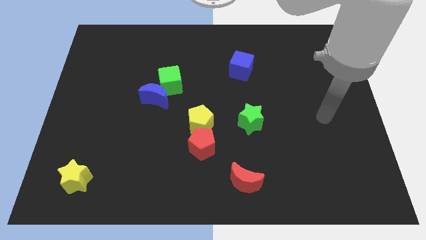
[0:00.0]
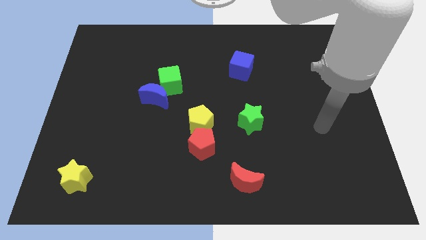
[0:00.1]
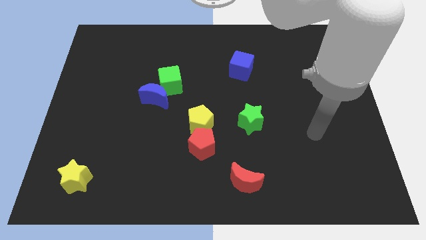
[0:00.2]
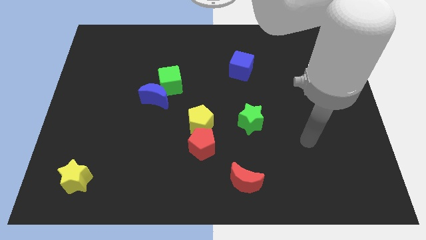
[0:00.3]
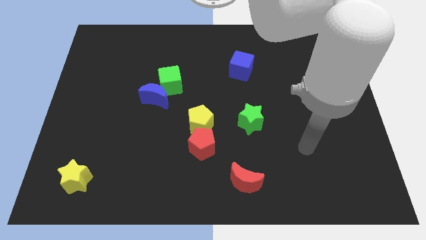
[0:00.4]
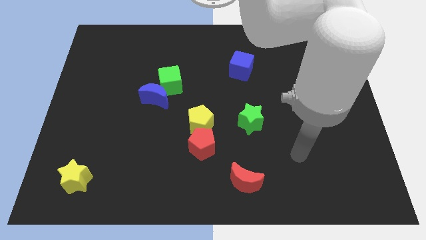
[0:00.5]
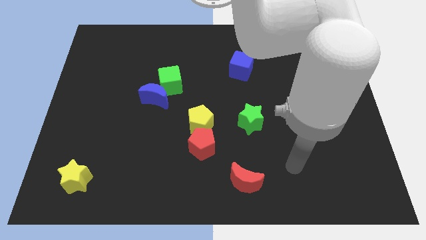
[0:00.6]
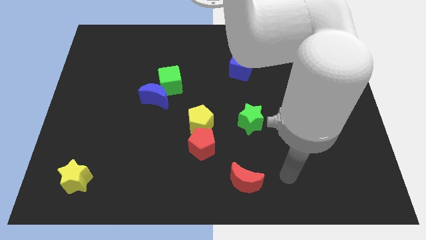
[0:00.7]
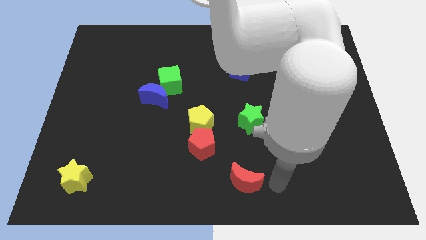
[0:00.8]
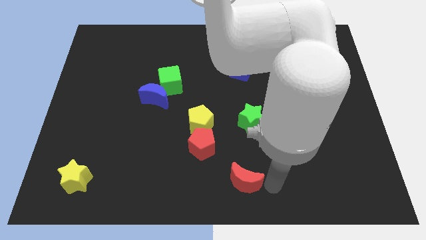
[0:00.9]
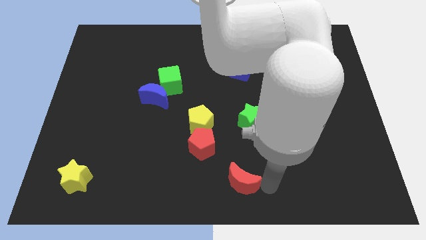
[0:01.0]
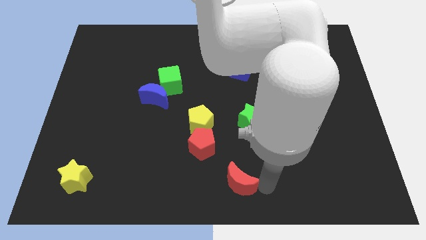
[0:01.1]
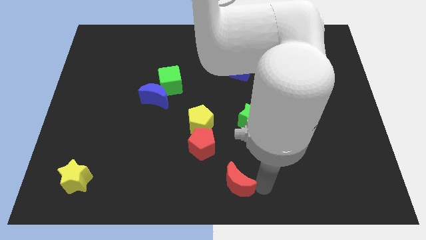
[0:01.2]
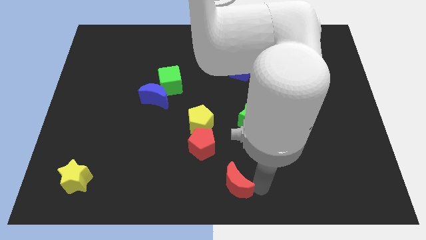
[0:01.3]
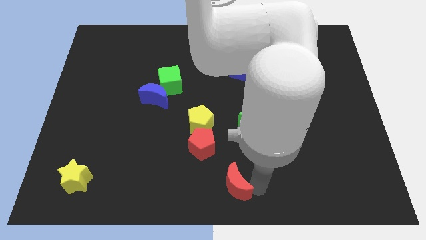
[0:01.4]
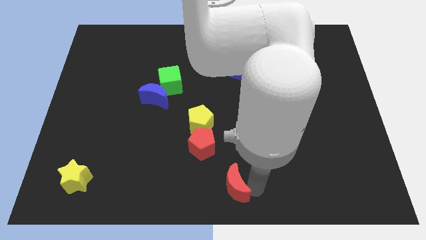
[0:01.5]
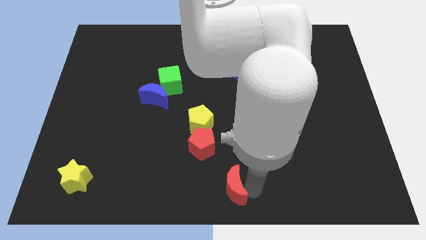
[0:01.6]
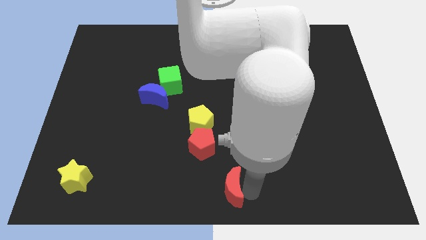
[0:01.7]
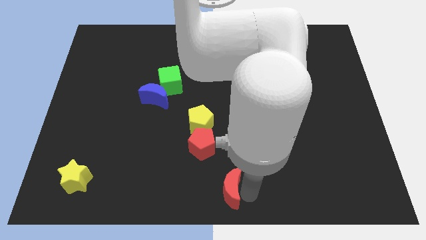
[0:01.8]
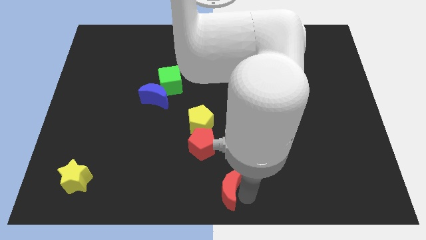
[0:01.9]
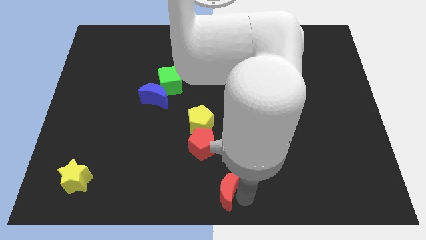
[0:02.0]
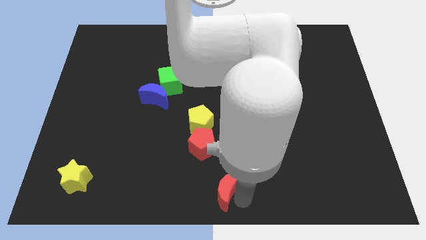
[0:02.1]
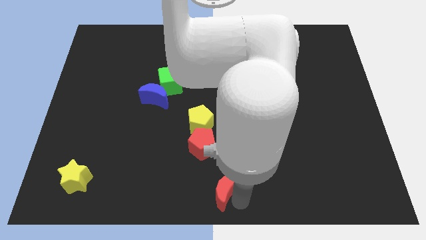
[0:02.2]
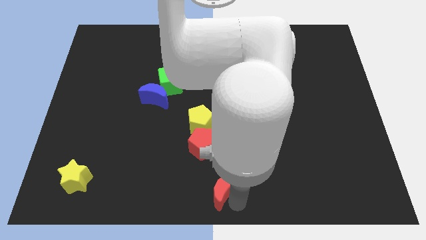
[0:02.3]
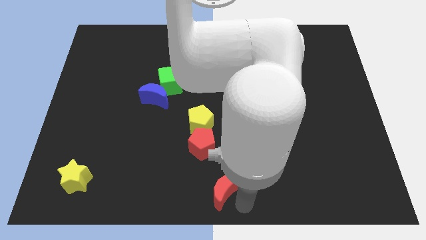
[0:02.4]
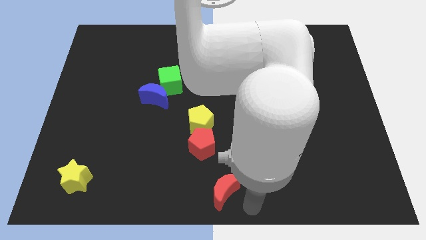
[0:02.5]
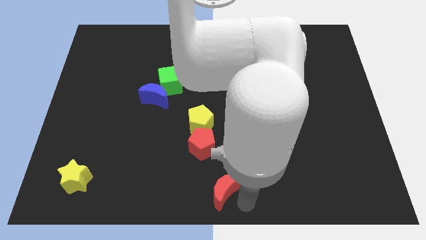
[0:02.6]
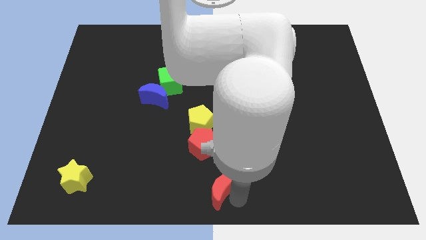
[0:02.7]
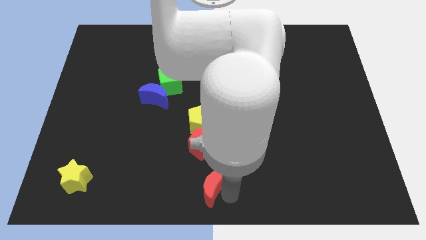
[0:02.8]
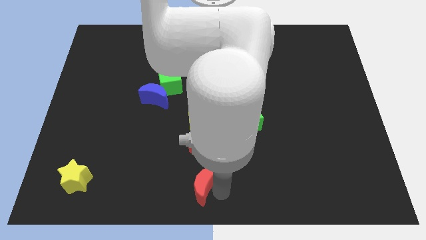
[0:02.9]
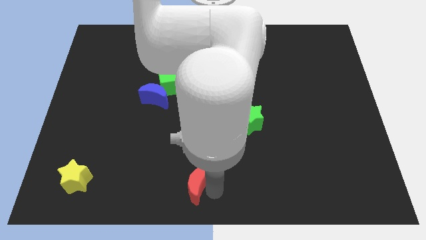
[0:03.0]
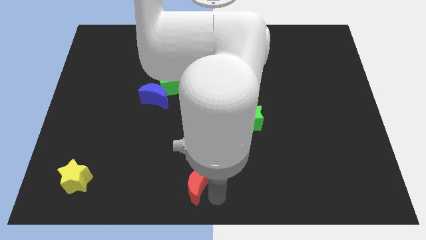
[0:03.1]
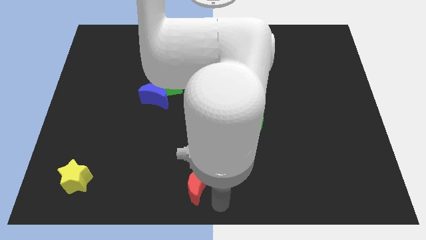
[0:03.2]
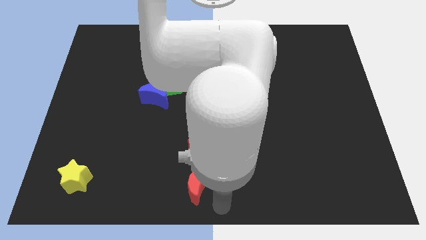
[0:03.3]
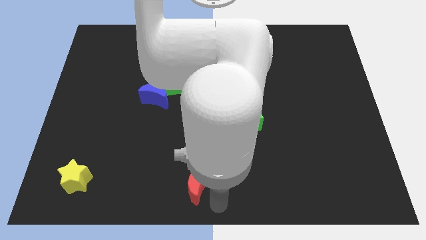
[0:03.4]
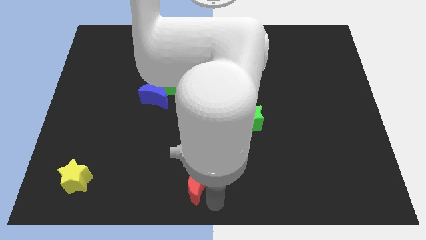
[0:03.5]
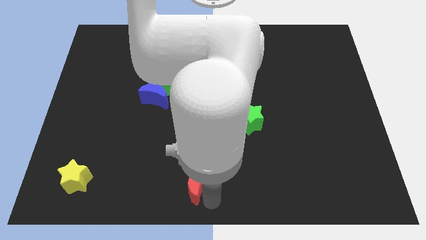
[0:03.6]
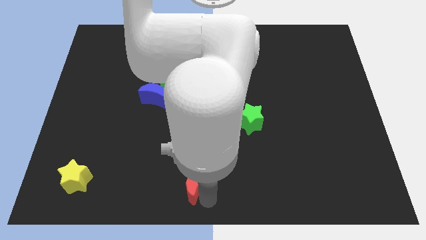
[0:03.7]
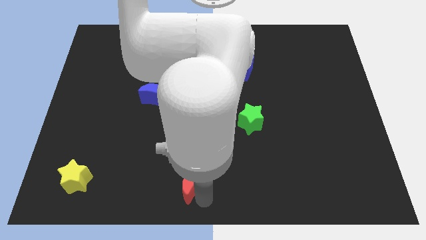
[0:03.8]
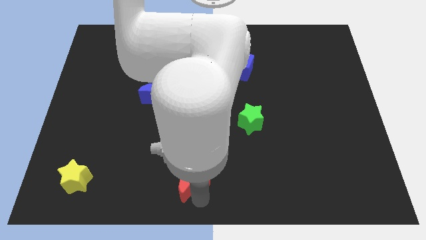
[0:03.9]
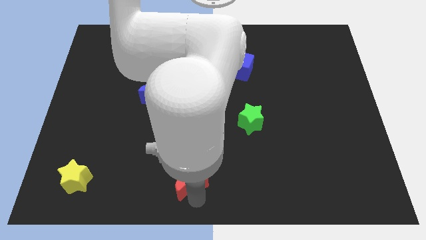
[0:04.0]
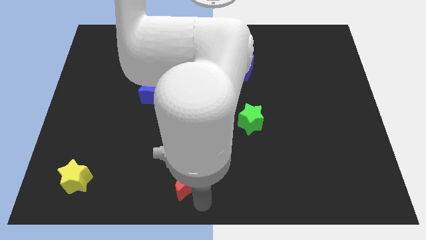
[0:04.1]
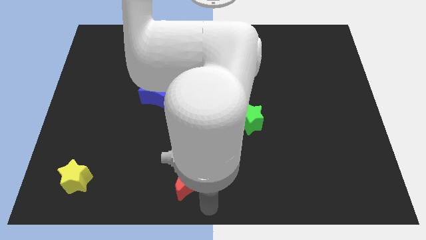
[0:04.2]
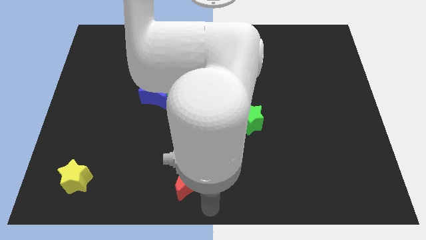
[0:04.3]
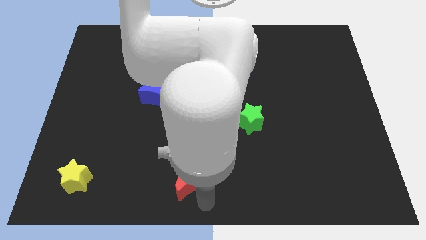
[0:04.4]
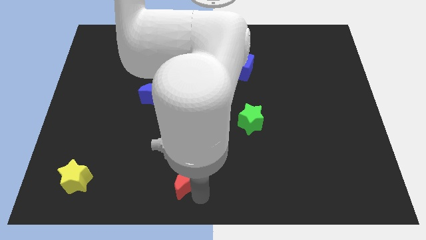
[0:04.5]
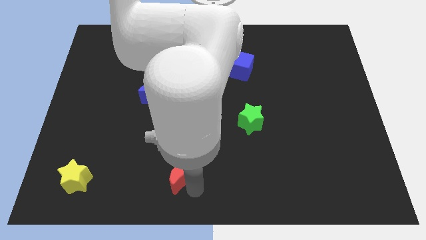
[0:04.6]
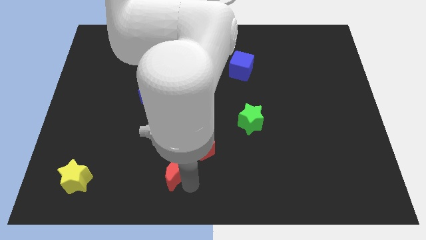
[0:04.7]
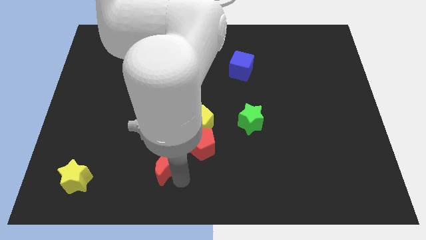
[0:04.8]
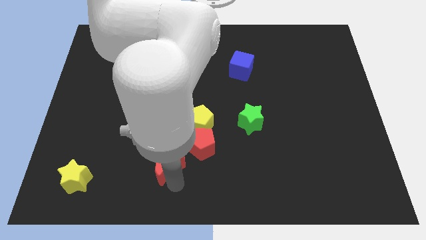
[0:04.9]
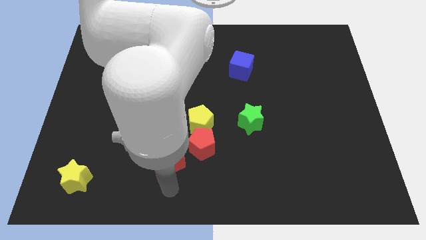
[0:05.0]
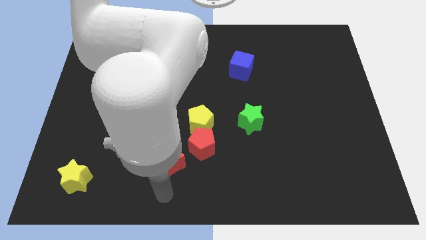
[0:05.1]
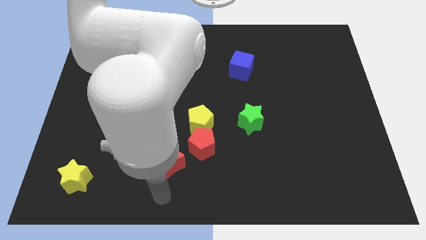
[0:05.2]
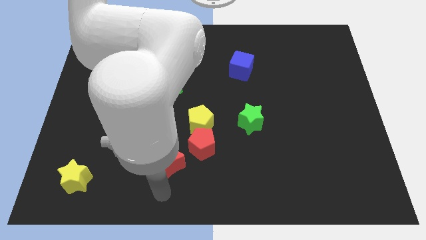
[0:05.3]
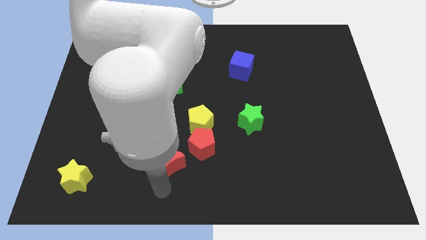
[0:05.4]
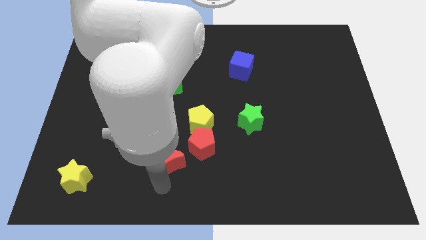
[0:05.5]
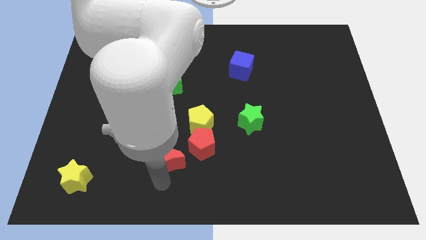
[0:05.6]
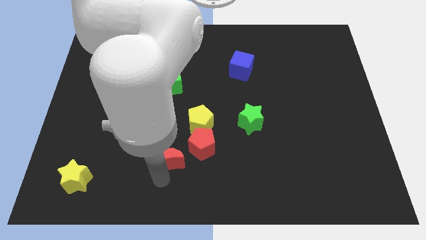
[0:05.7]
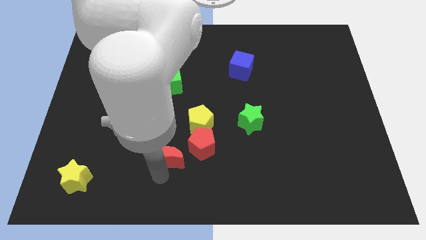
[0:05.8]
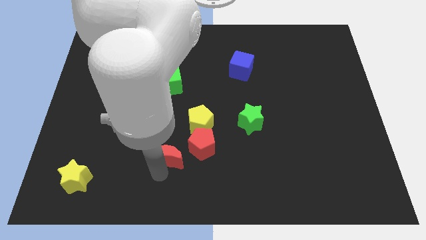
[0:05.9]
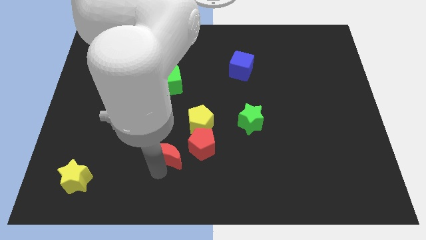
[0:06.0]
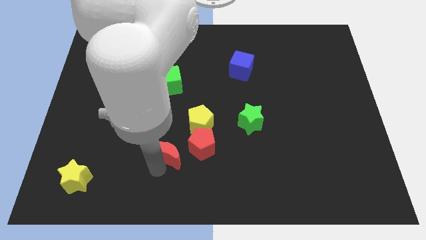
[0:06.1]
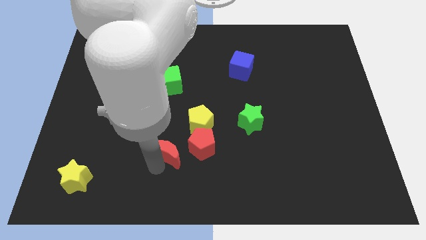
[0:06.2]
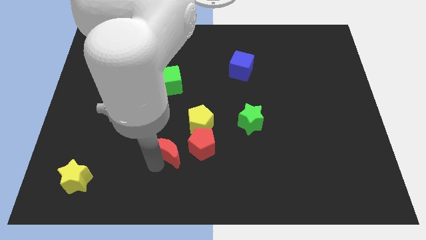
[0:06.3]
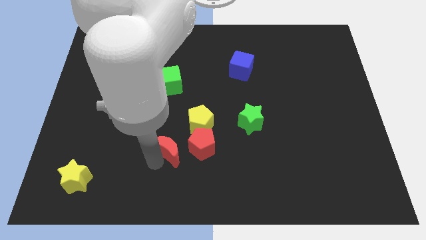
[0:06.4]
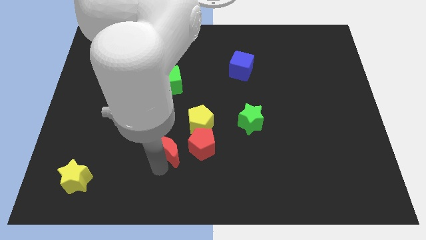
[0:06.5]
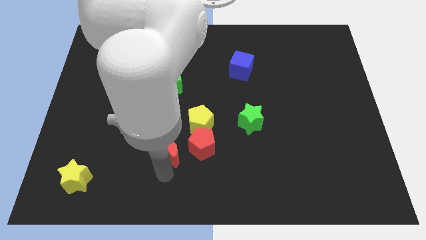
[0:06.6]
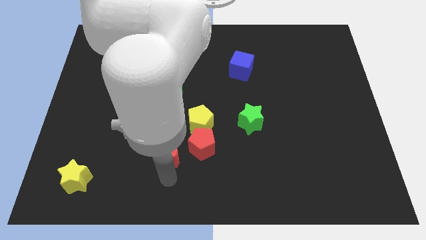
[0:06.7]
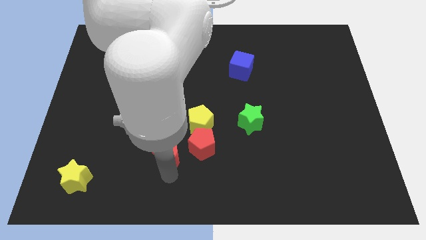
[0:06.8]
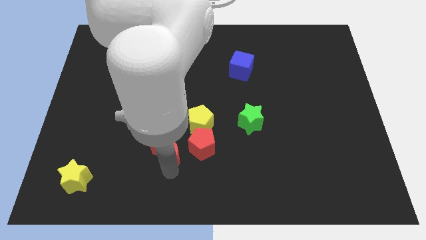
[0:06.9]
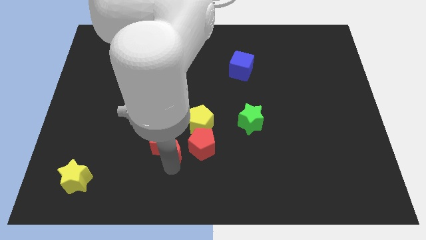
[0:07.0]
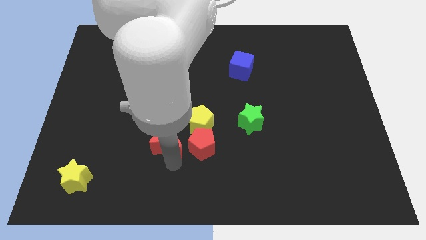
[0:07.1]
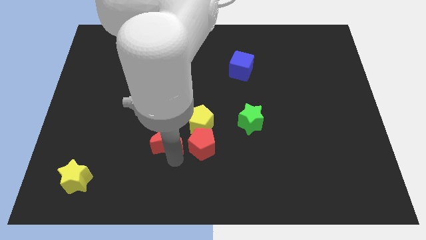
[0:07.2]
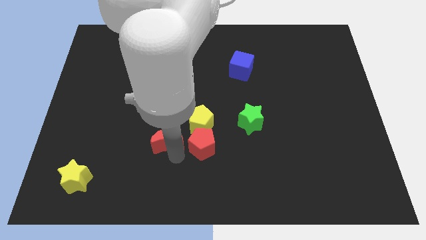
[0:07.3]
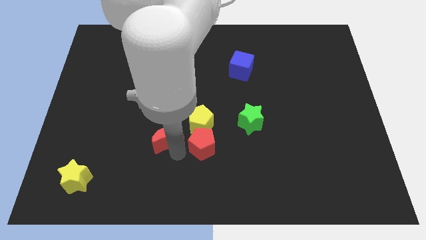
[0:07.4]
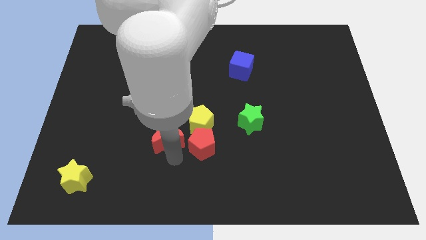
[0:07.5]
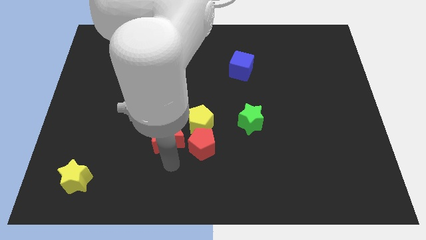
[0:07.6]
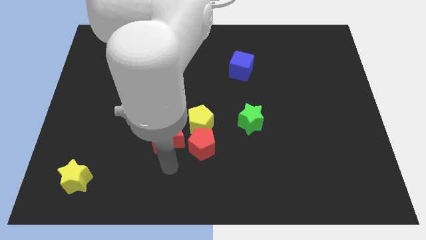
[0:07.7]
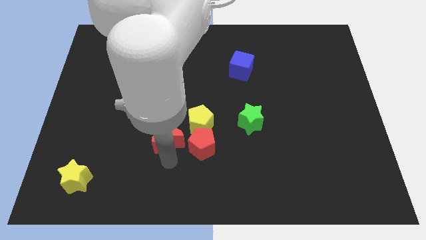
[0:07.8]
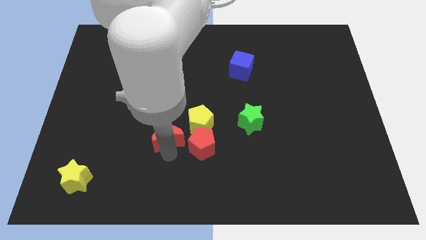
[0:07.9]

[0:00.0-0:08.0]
push the red moon to the bottom side of the green cube

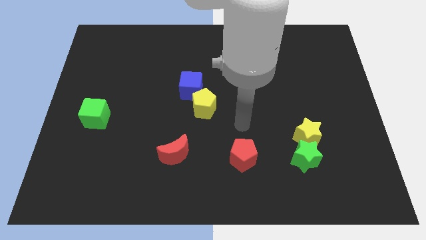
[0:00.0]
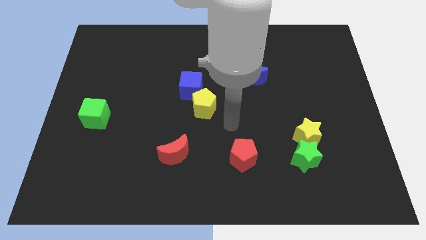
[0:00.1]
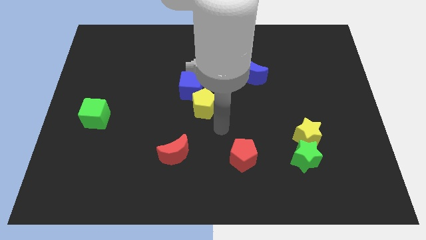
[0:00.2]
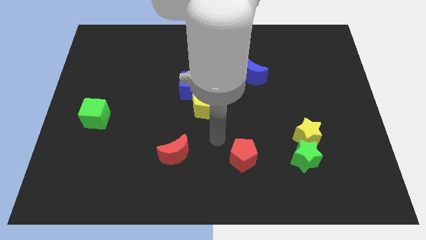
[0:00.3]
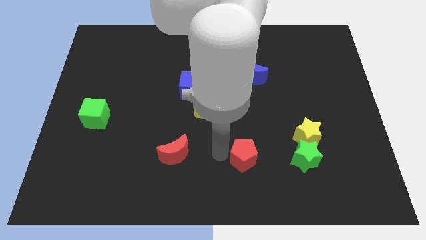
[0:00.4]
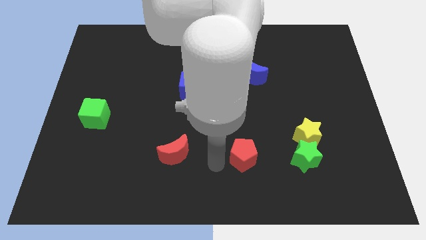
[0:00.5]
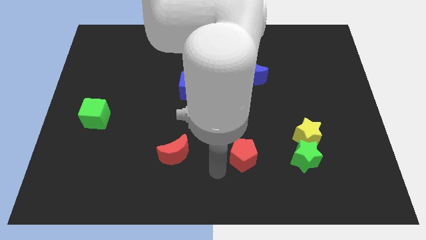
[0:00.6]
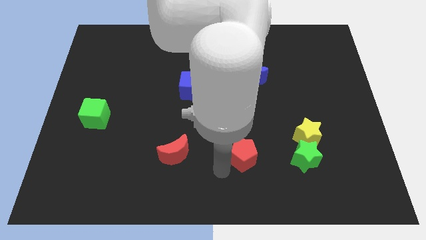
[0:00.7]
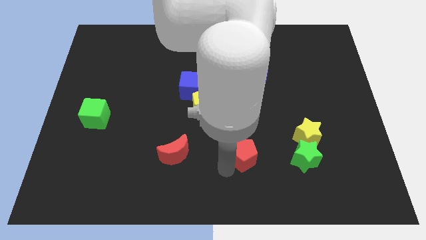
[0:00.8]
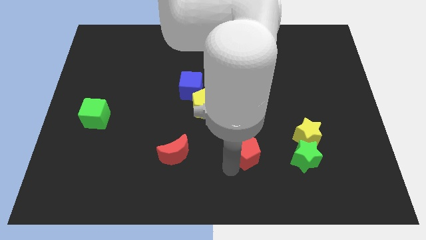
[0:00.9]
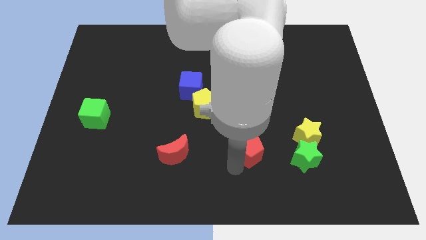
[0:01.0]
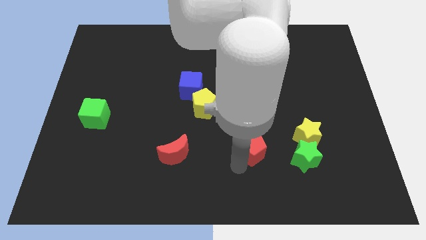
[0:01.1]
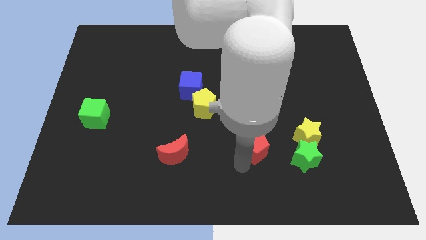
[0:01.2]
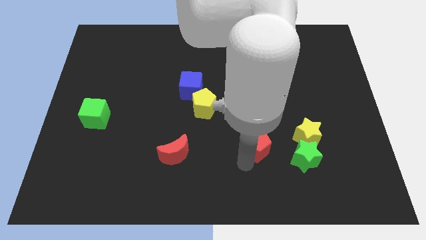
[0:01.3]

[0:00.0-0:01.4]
put the red pentagon diagonally up and to the left of the green star
